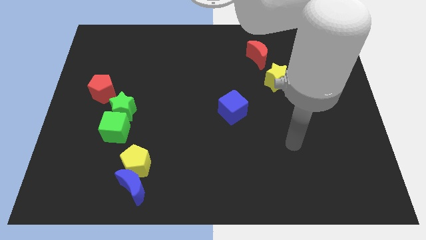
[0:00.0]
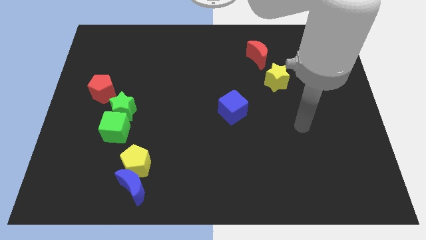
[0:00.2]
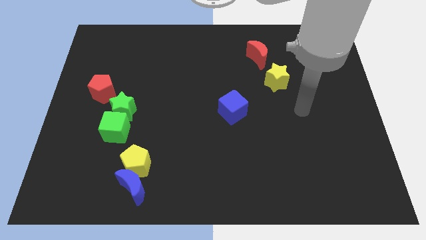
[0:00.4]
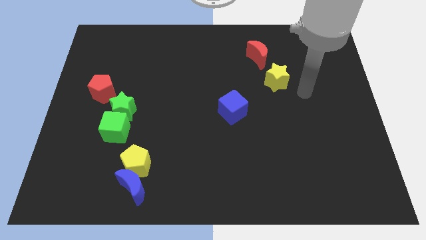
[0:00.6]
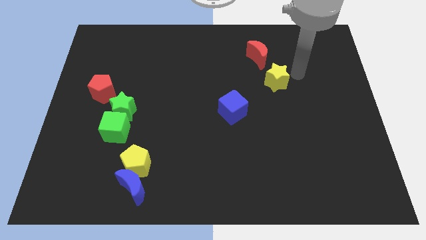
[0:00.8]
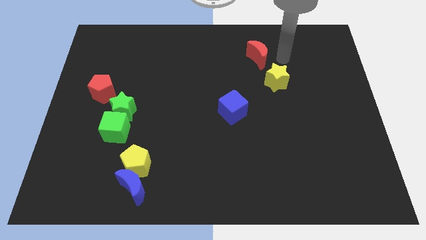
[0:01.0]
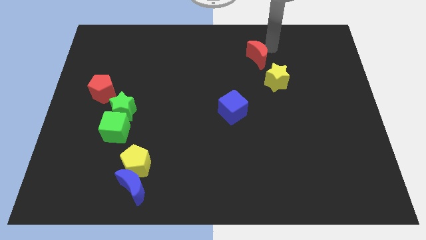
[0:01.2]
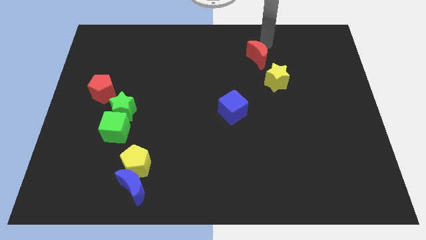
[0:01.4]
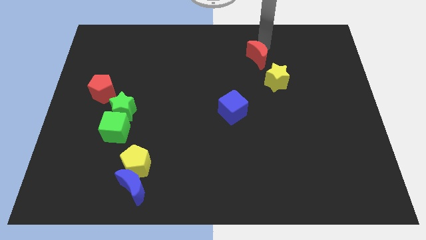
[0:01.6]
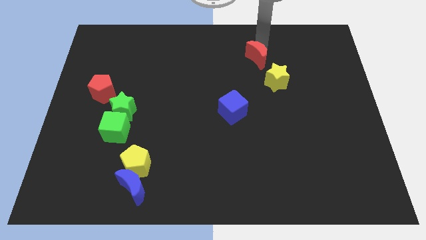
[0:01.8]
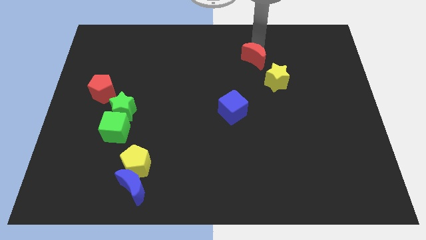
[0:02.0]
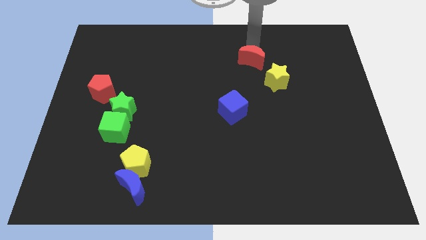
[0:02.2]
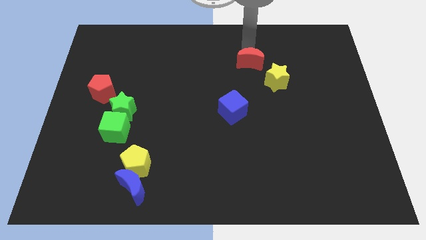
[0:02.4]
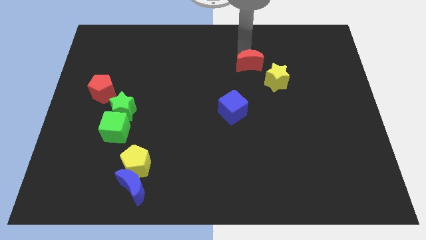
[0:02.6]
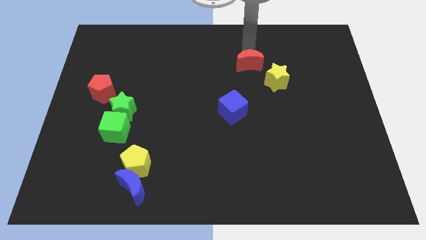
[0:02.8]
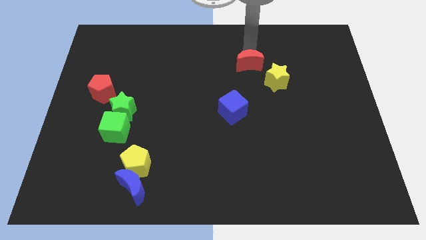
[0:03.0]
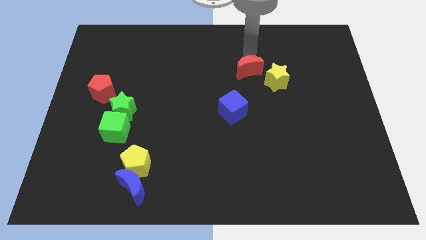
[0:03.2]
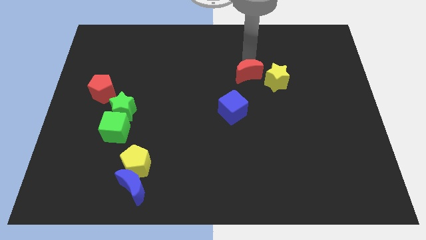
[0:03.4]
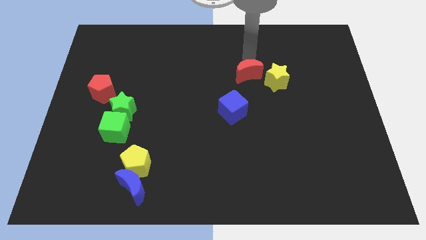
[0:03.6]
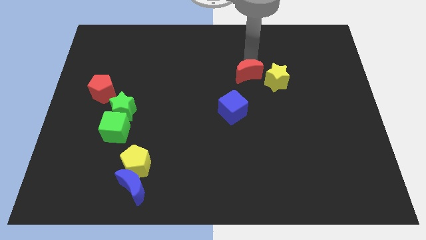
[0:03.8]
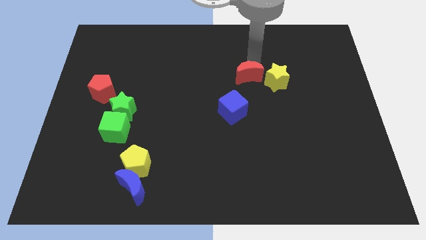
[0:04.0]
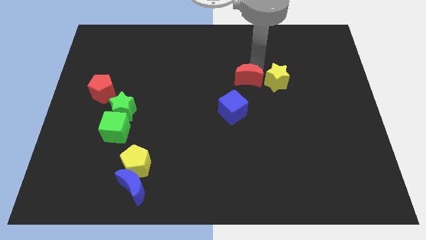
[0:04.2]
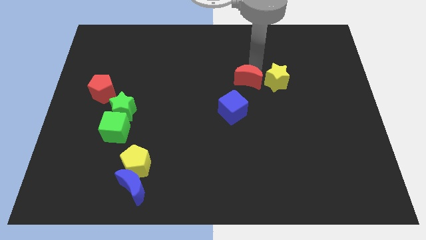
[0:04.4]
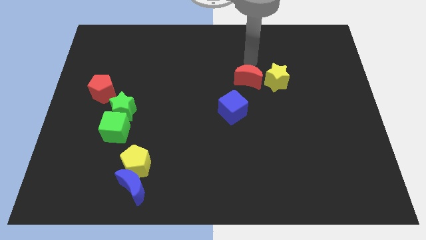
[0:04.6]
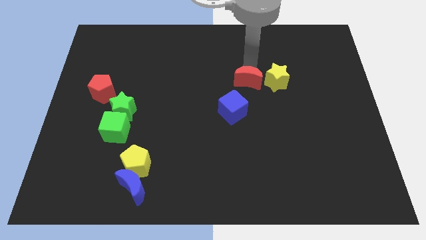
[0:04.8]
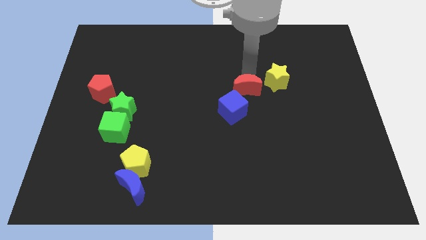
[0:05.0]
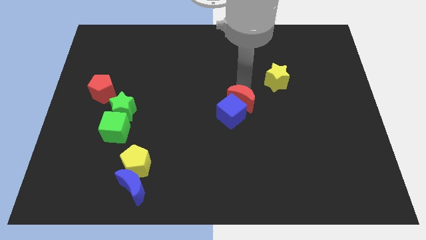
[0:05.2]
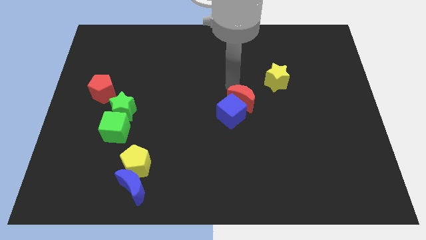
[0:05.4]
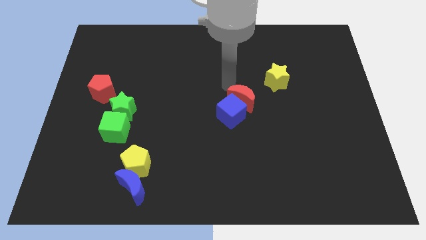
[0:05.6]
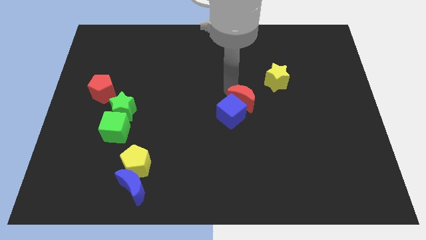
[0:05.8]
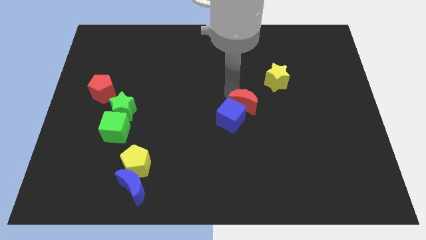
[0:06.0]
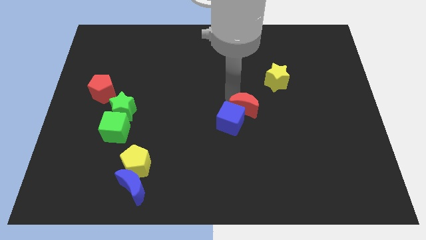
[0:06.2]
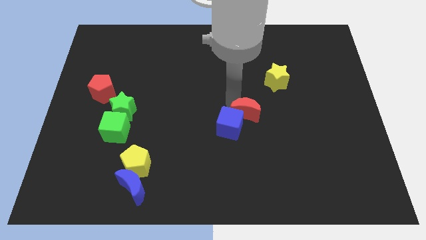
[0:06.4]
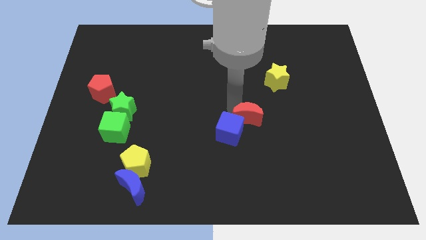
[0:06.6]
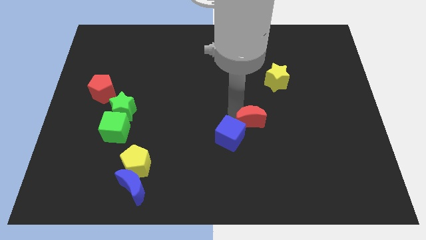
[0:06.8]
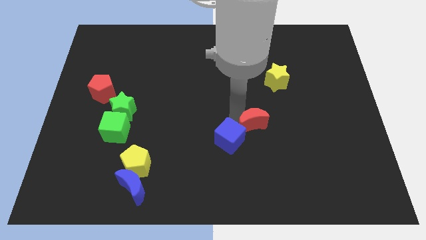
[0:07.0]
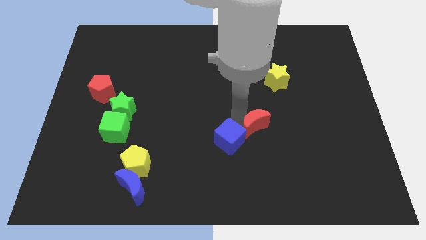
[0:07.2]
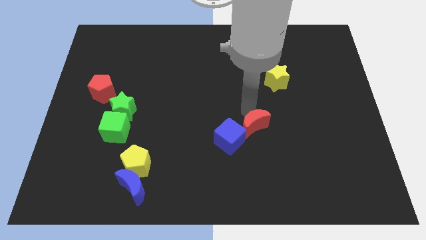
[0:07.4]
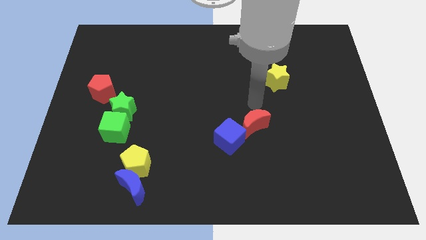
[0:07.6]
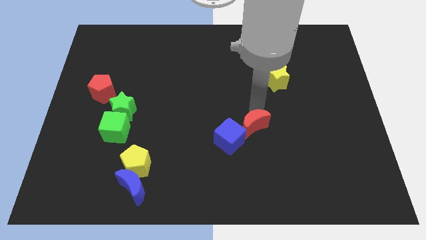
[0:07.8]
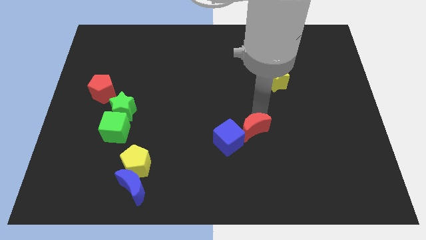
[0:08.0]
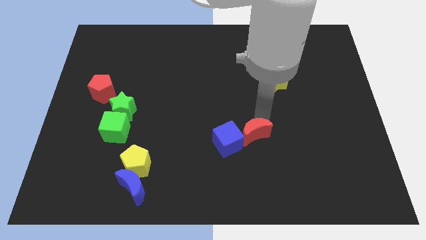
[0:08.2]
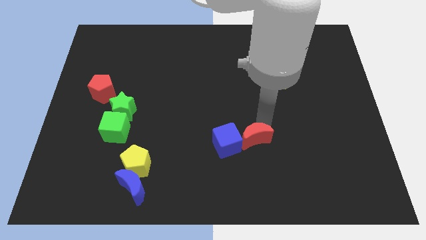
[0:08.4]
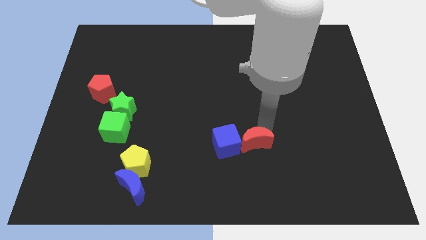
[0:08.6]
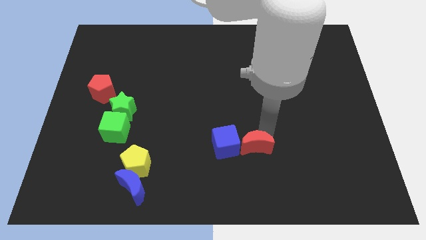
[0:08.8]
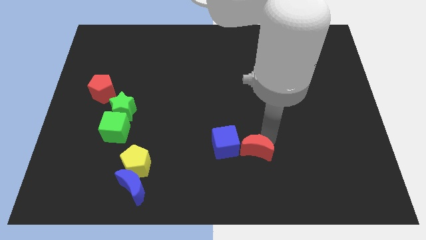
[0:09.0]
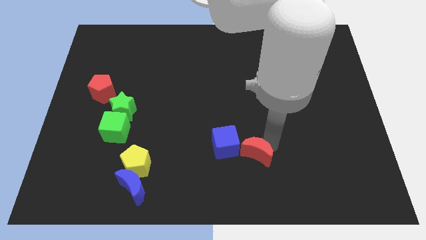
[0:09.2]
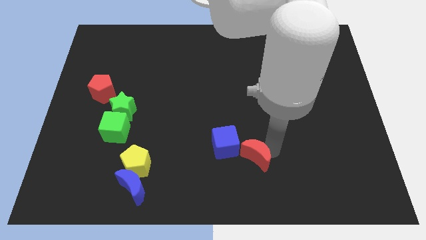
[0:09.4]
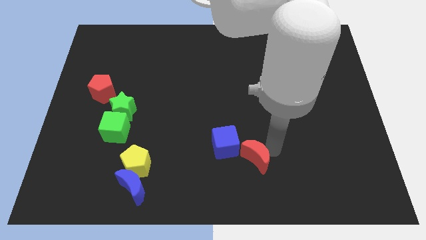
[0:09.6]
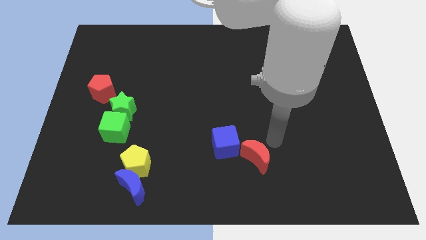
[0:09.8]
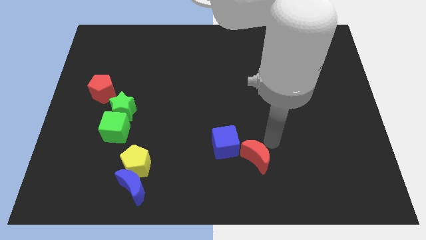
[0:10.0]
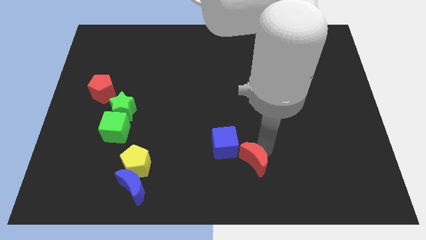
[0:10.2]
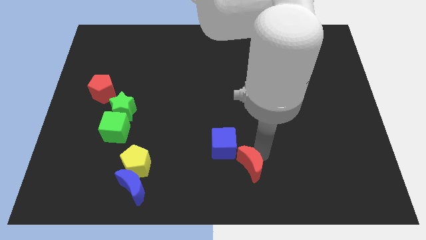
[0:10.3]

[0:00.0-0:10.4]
put the red moon to the bottom
